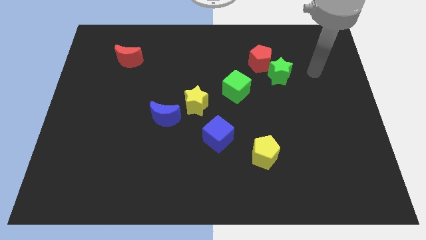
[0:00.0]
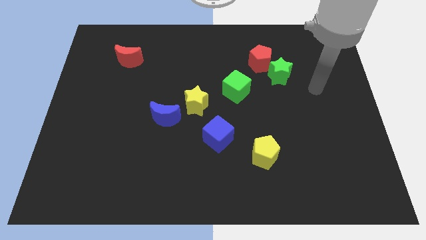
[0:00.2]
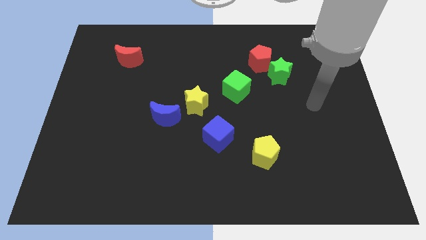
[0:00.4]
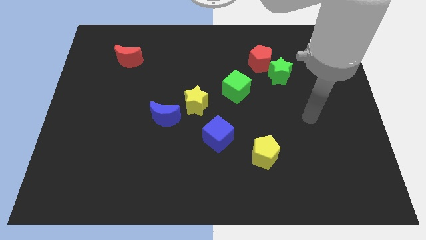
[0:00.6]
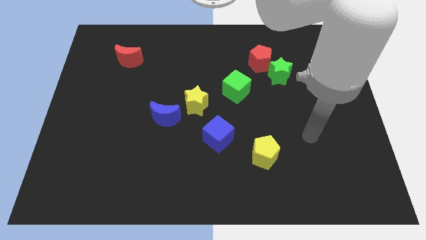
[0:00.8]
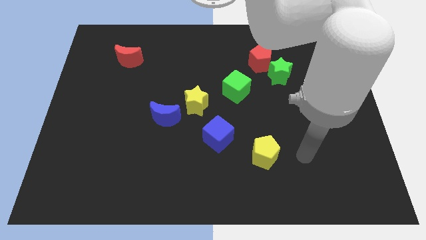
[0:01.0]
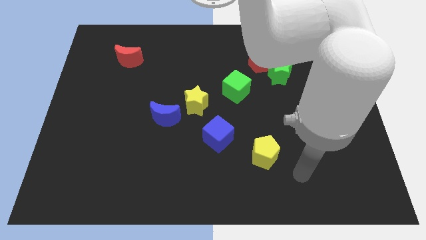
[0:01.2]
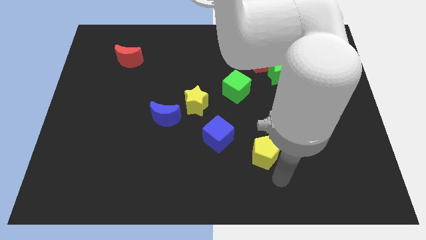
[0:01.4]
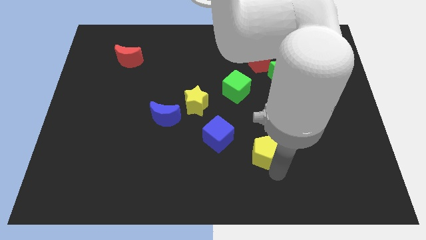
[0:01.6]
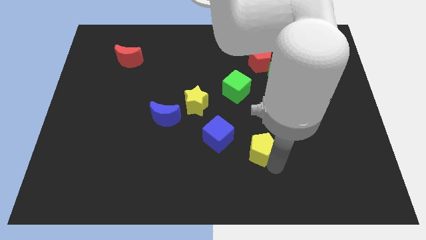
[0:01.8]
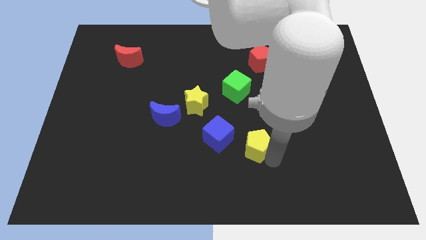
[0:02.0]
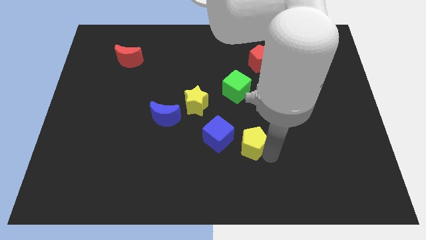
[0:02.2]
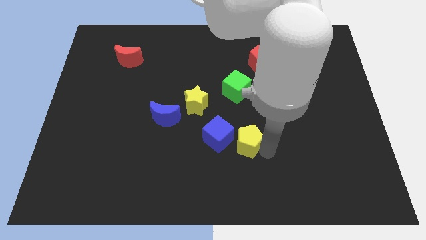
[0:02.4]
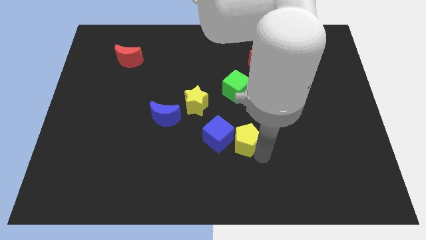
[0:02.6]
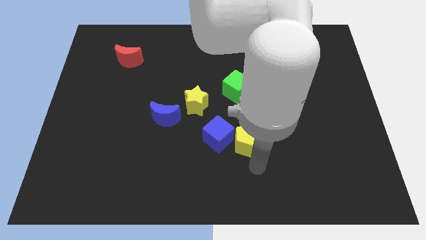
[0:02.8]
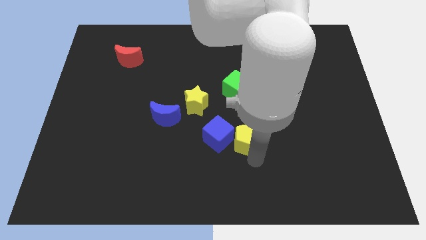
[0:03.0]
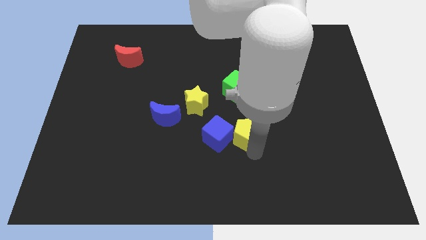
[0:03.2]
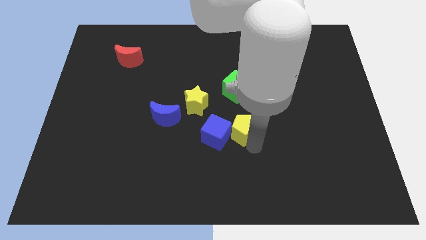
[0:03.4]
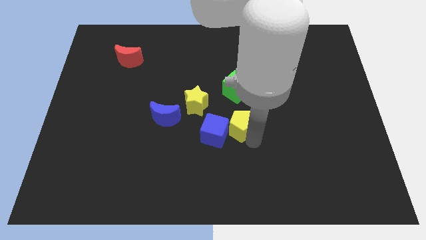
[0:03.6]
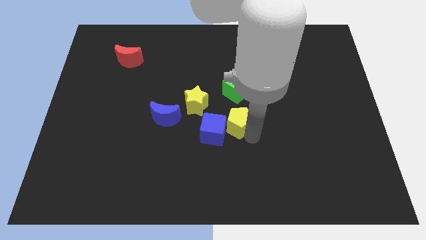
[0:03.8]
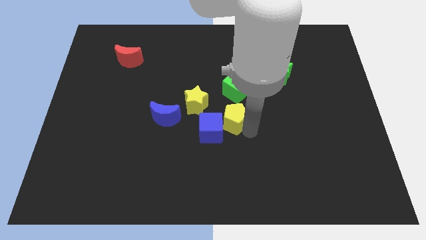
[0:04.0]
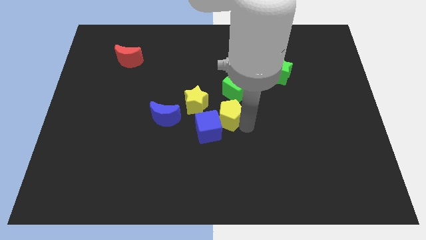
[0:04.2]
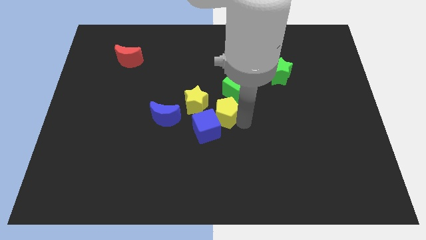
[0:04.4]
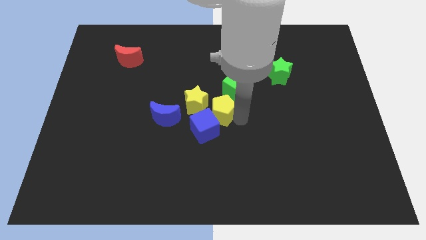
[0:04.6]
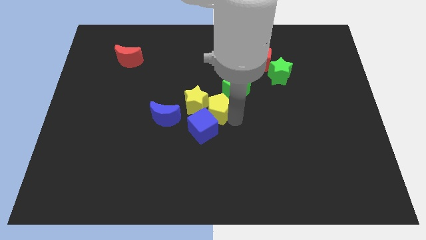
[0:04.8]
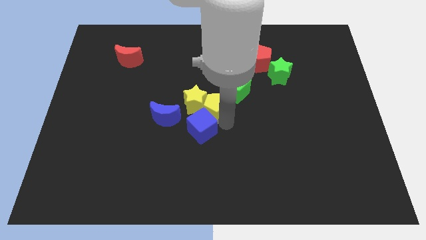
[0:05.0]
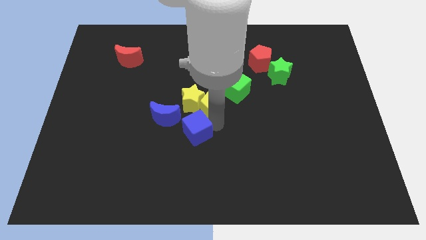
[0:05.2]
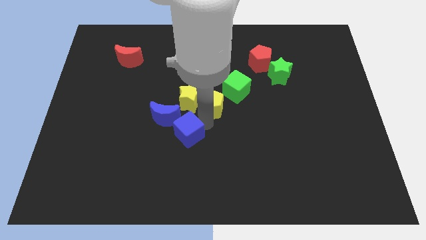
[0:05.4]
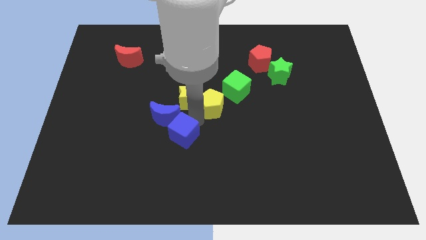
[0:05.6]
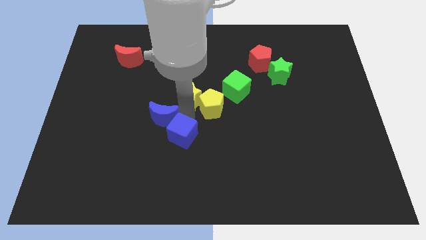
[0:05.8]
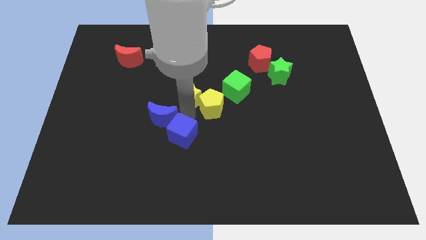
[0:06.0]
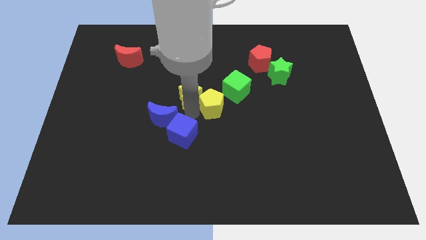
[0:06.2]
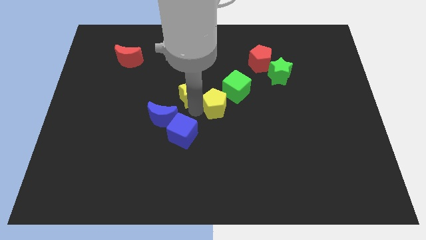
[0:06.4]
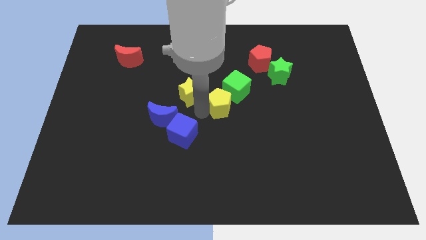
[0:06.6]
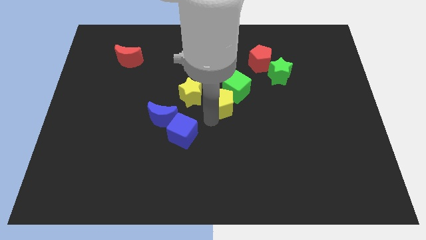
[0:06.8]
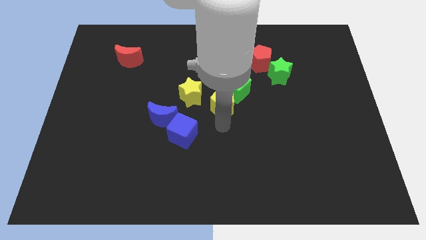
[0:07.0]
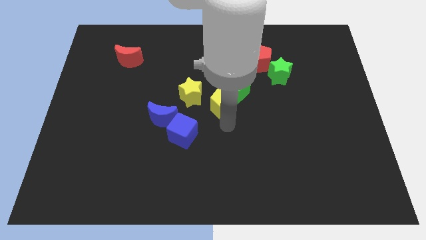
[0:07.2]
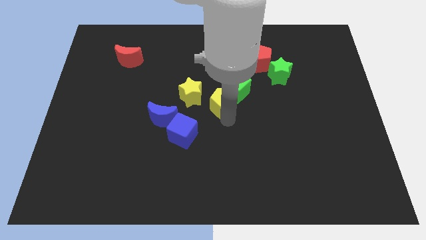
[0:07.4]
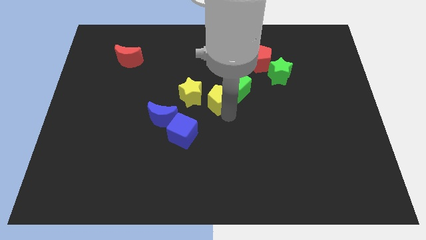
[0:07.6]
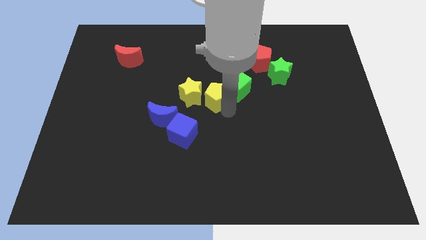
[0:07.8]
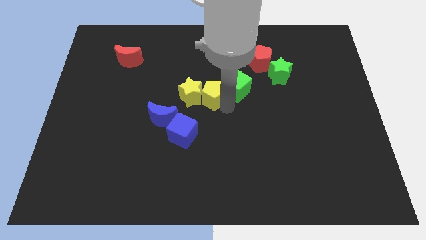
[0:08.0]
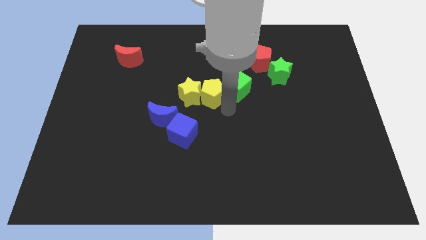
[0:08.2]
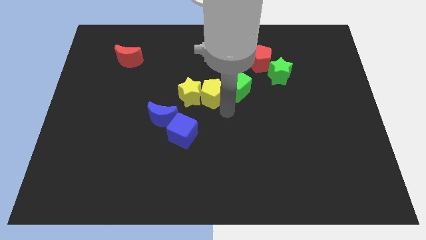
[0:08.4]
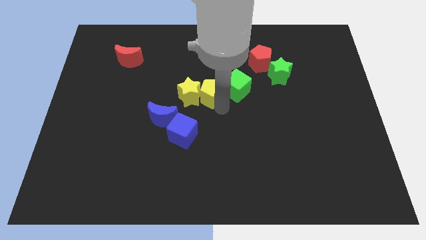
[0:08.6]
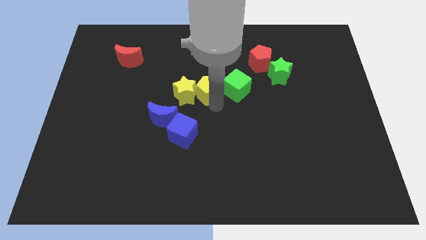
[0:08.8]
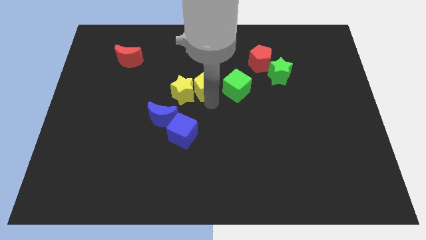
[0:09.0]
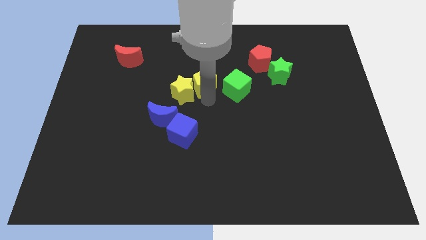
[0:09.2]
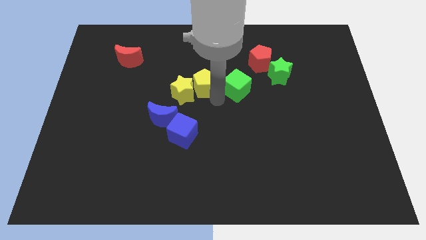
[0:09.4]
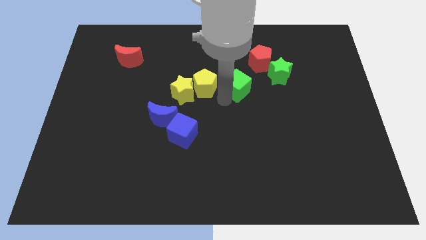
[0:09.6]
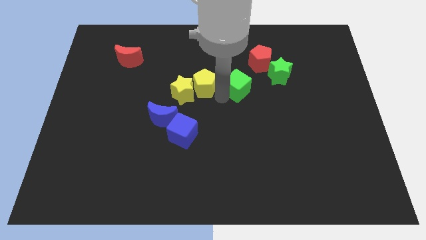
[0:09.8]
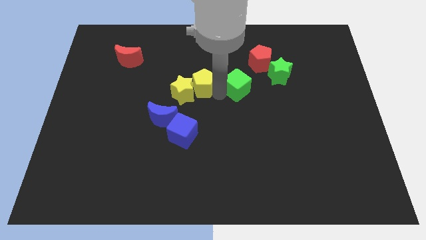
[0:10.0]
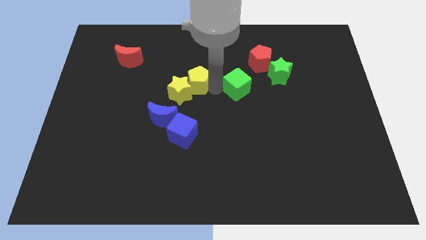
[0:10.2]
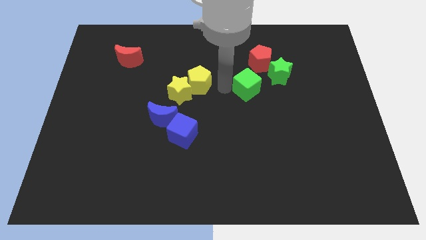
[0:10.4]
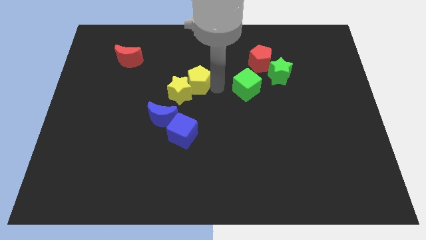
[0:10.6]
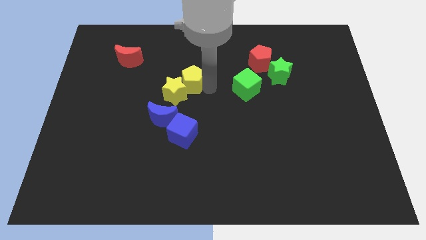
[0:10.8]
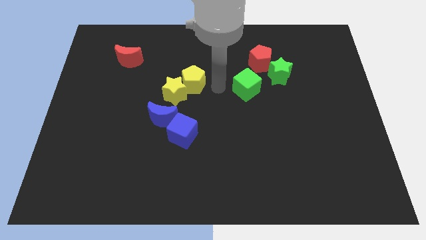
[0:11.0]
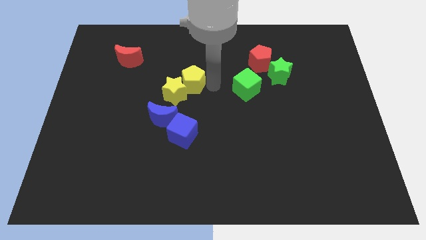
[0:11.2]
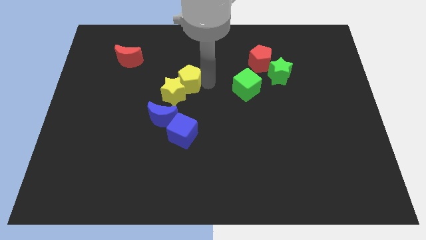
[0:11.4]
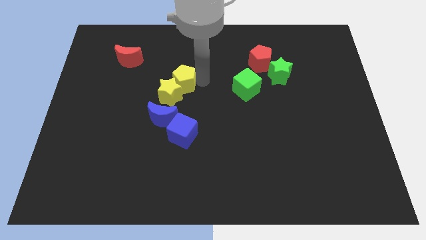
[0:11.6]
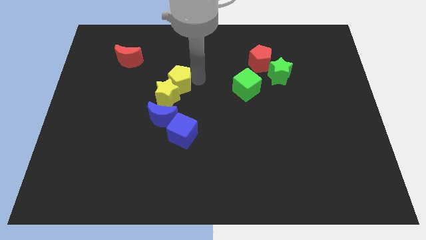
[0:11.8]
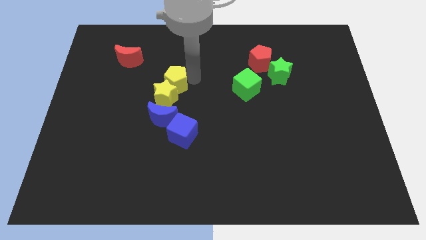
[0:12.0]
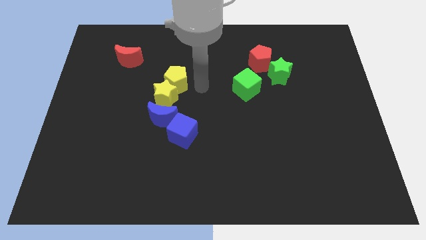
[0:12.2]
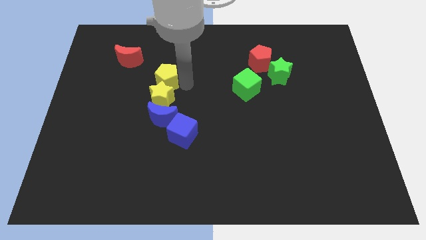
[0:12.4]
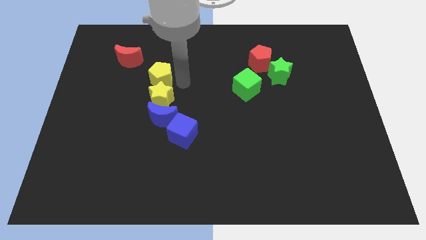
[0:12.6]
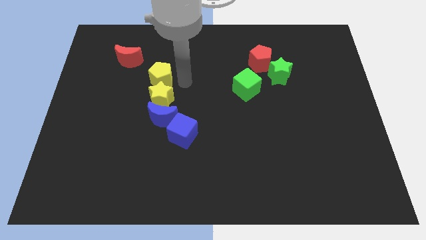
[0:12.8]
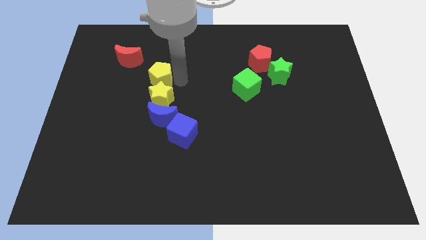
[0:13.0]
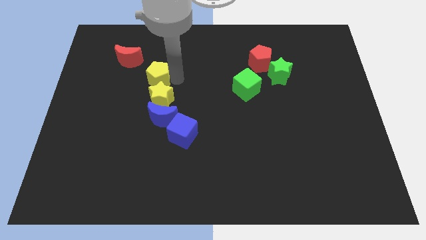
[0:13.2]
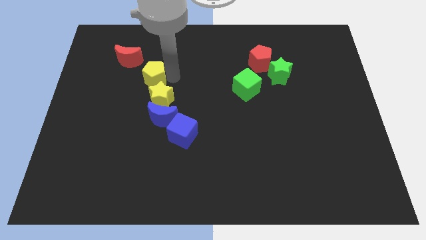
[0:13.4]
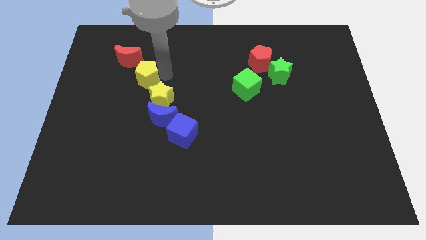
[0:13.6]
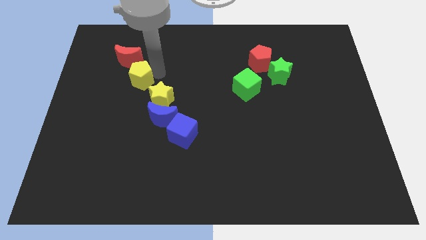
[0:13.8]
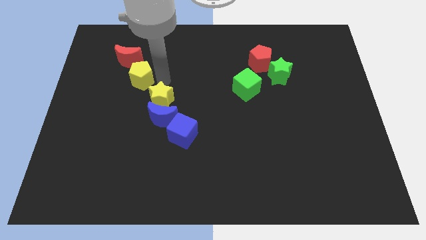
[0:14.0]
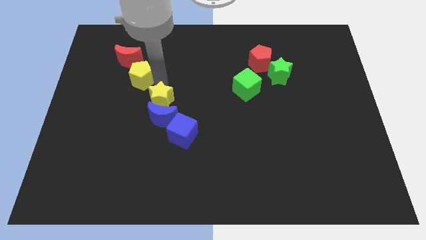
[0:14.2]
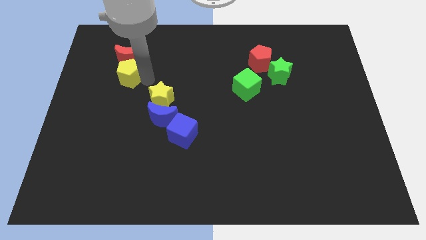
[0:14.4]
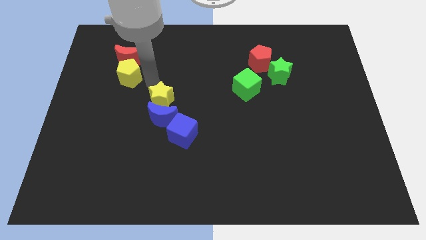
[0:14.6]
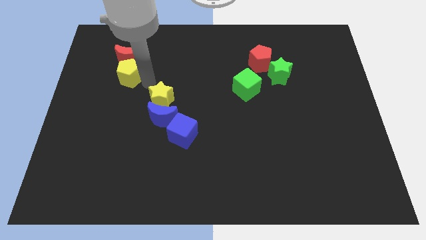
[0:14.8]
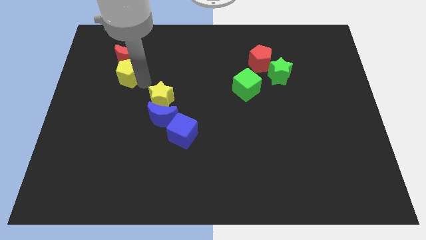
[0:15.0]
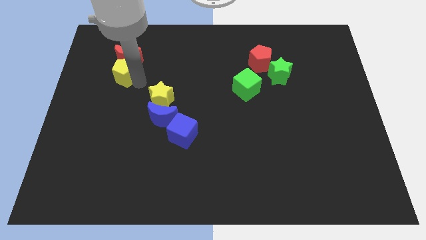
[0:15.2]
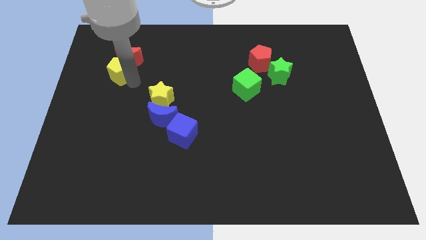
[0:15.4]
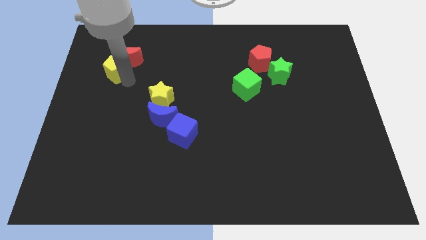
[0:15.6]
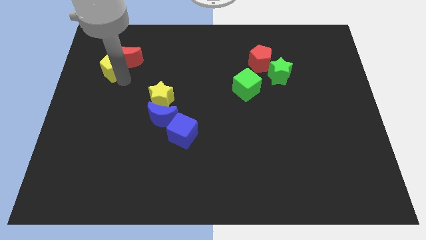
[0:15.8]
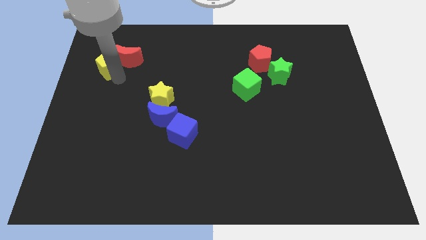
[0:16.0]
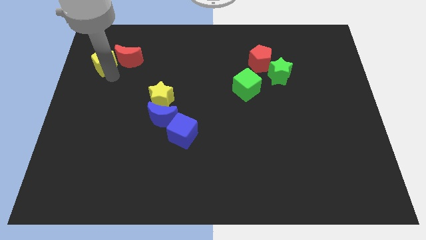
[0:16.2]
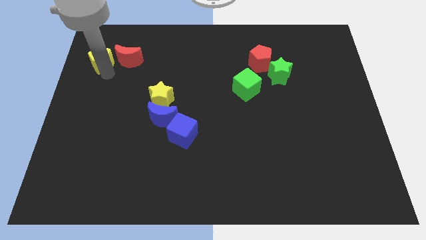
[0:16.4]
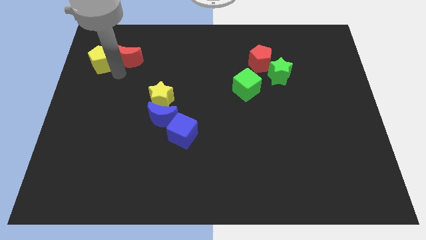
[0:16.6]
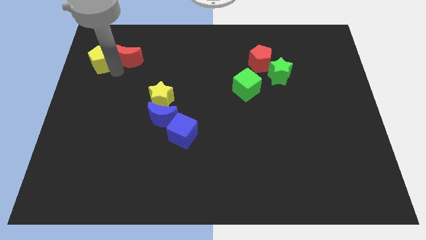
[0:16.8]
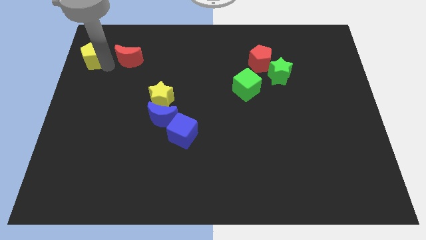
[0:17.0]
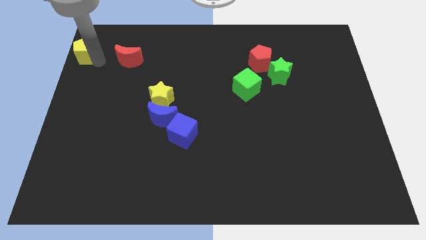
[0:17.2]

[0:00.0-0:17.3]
put the yellow pentagon to the top left of the board
